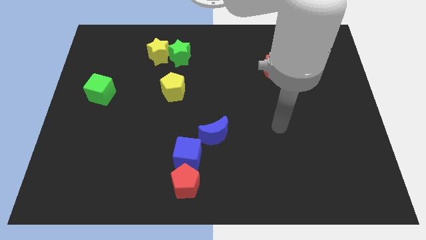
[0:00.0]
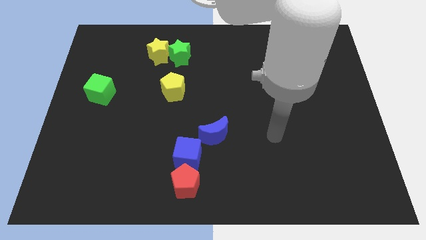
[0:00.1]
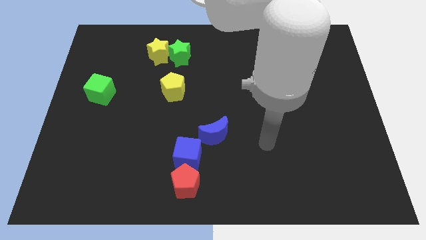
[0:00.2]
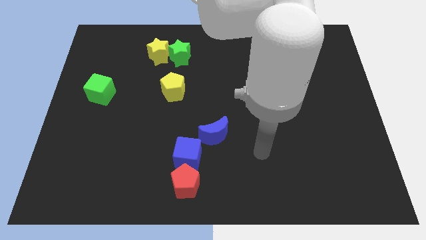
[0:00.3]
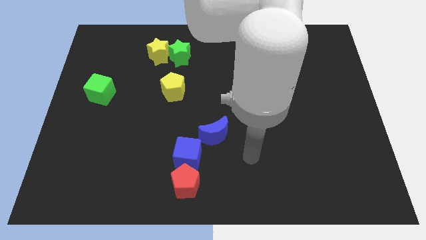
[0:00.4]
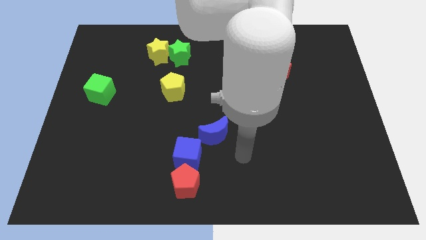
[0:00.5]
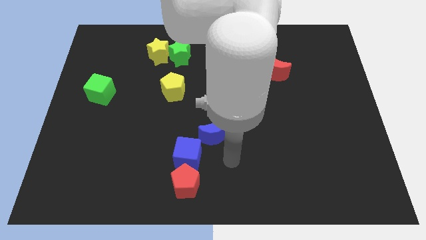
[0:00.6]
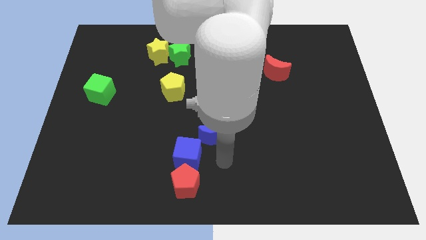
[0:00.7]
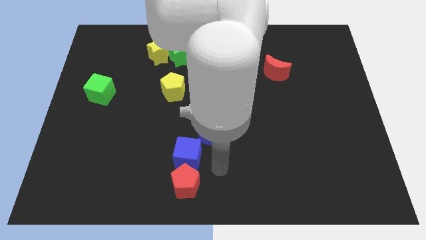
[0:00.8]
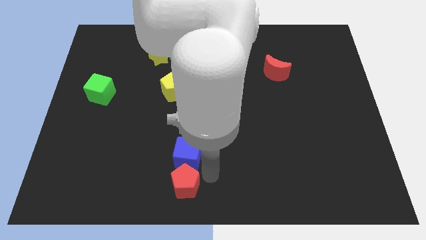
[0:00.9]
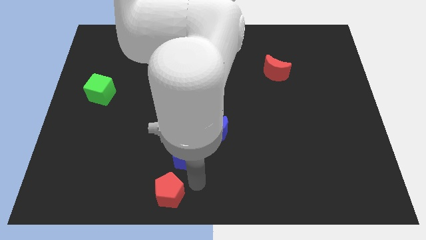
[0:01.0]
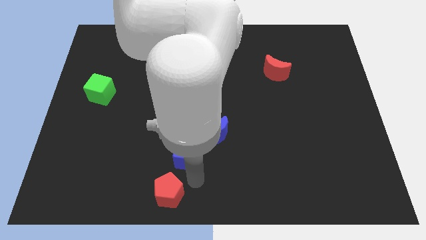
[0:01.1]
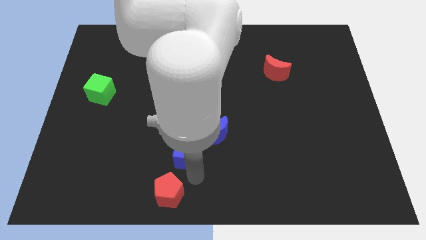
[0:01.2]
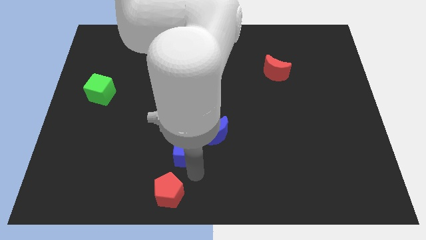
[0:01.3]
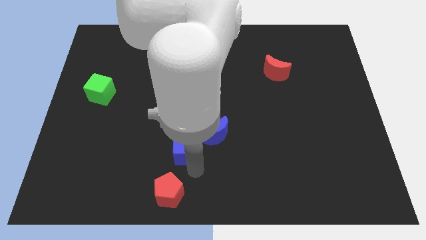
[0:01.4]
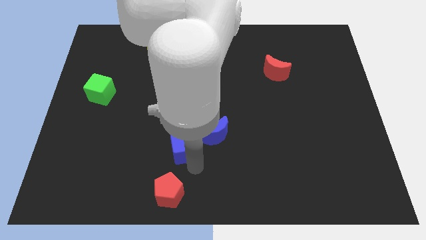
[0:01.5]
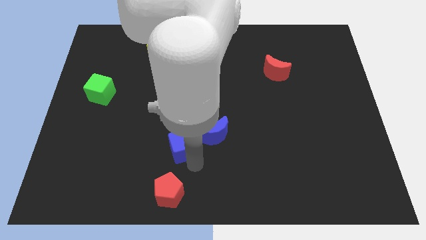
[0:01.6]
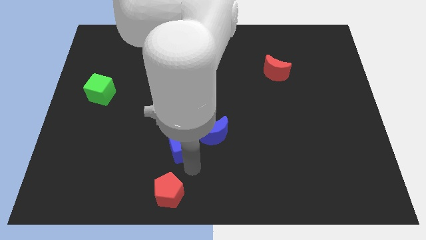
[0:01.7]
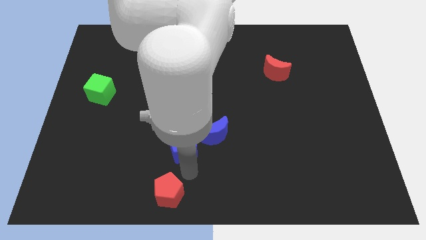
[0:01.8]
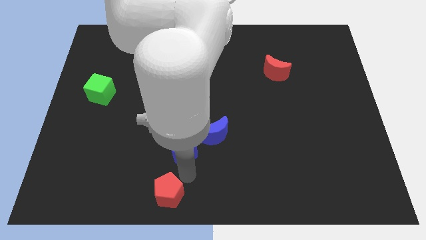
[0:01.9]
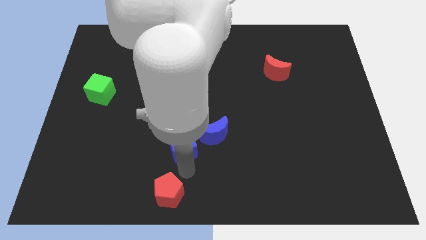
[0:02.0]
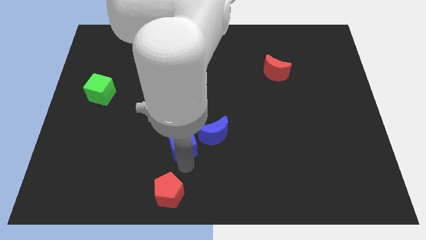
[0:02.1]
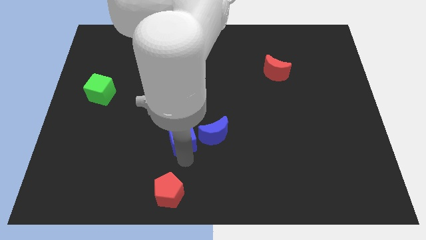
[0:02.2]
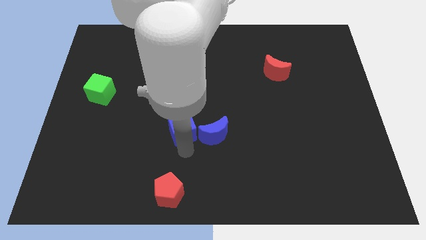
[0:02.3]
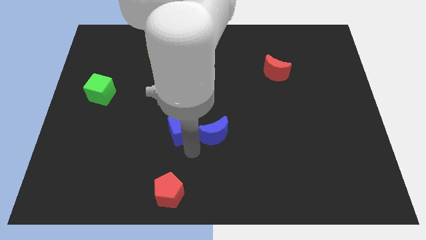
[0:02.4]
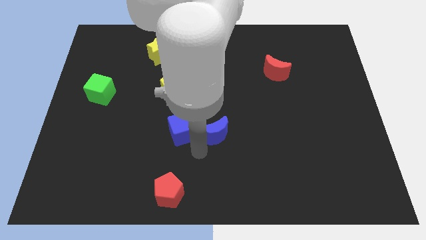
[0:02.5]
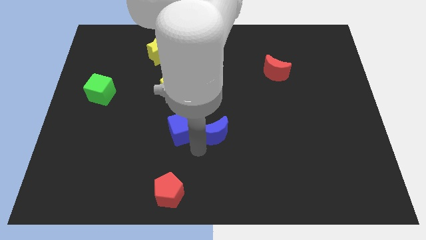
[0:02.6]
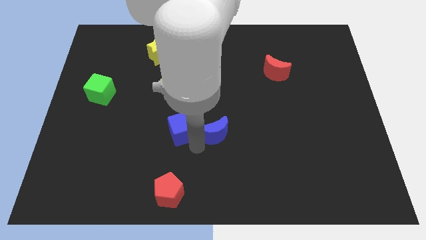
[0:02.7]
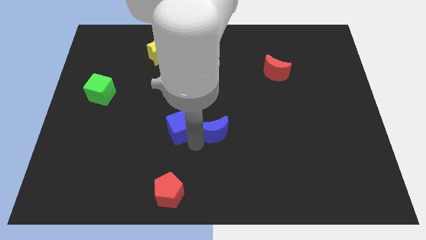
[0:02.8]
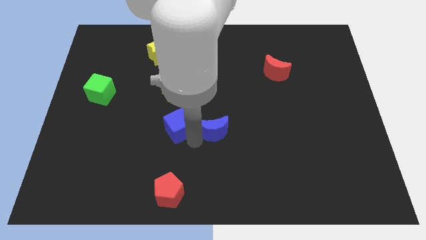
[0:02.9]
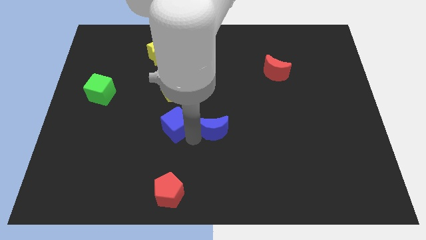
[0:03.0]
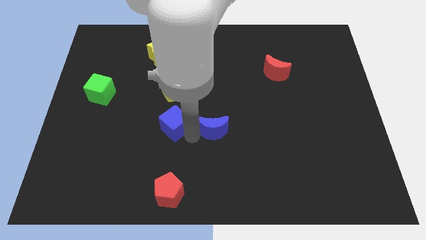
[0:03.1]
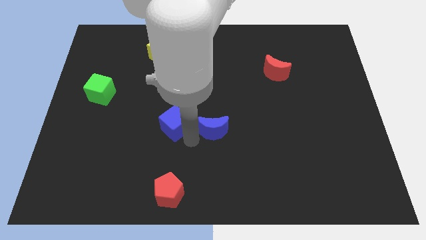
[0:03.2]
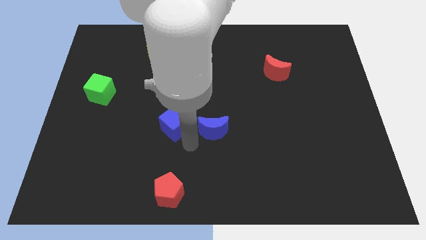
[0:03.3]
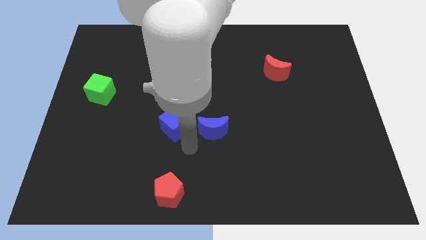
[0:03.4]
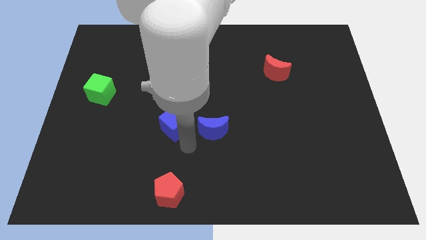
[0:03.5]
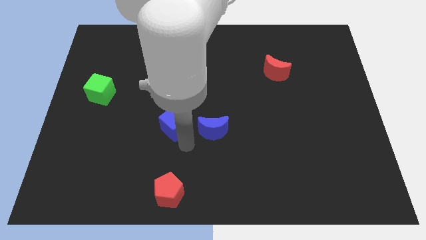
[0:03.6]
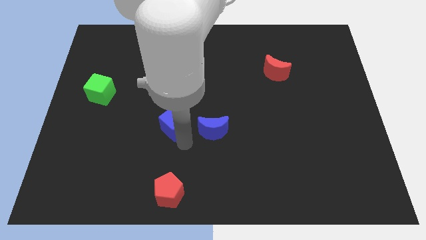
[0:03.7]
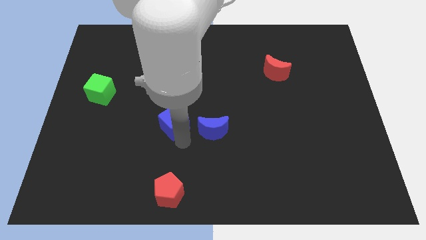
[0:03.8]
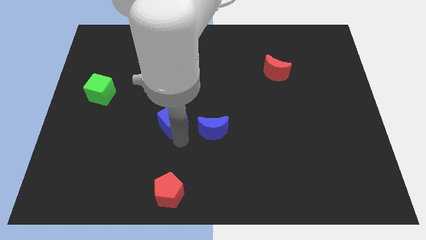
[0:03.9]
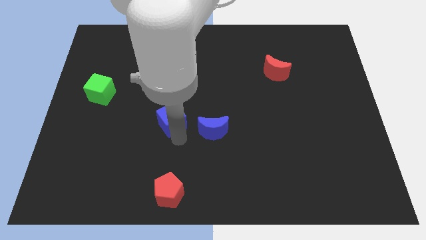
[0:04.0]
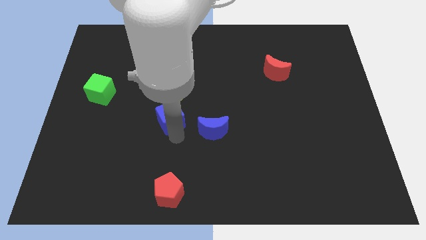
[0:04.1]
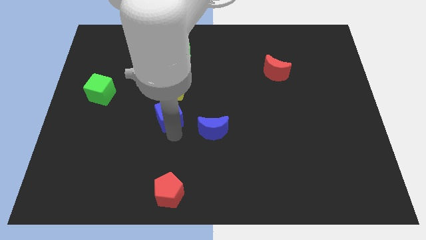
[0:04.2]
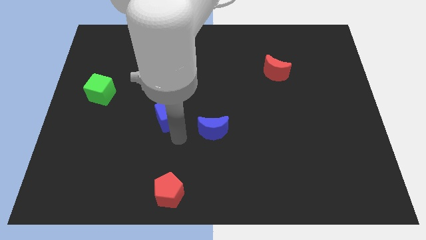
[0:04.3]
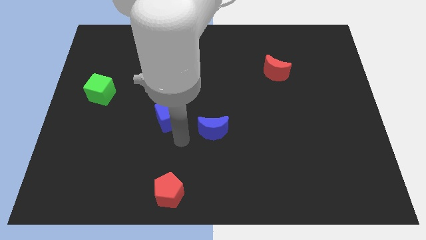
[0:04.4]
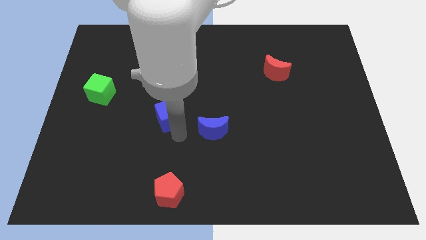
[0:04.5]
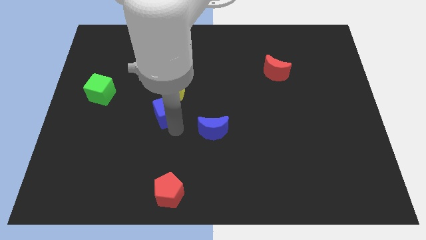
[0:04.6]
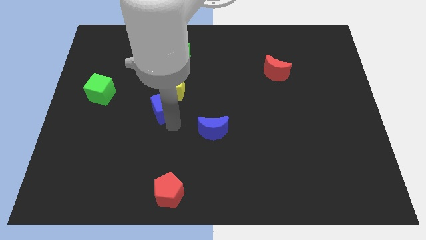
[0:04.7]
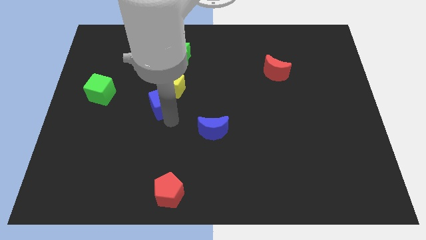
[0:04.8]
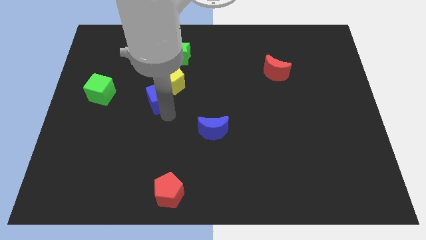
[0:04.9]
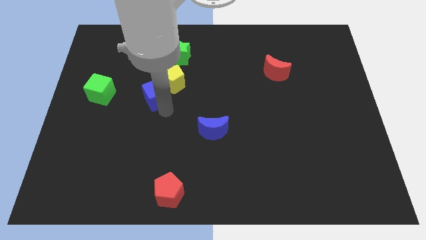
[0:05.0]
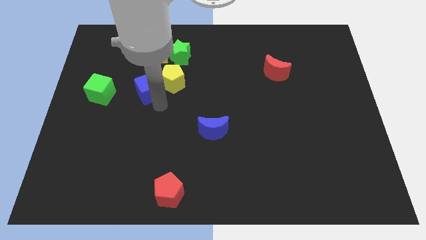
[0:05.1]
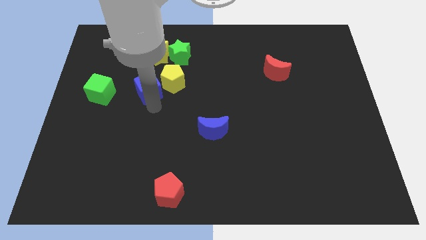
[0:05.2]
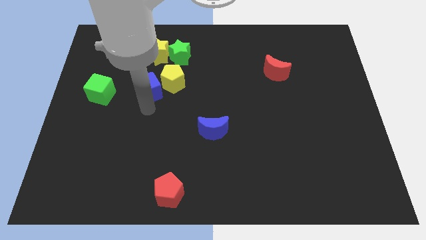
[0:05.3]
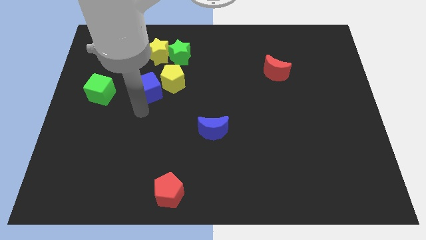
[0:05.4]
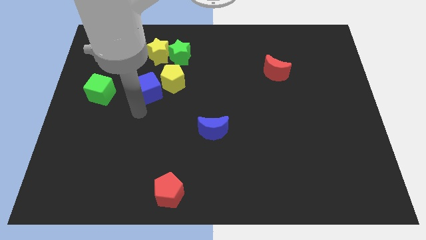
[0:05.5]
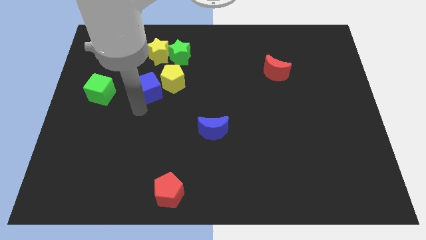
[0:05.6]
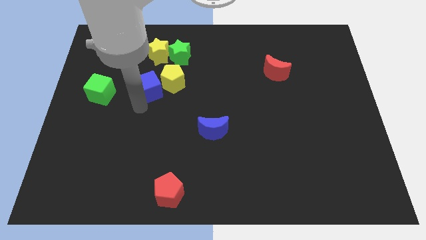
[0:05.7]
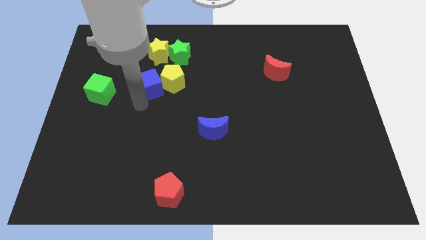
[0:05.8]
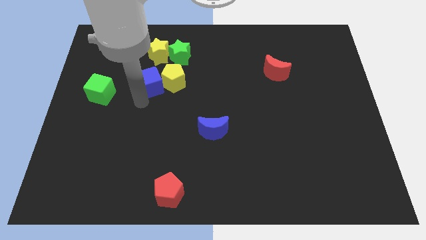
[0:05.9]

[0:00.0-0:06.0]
slide the blue cube to the bottom left side of the green star

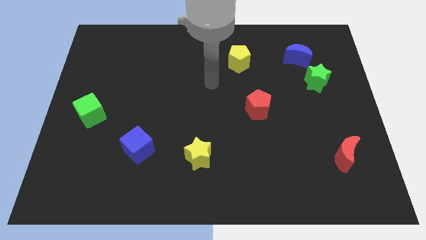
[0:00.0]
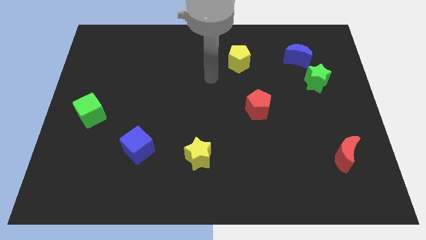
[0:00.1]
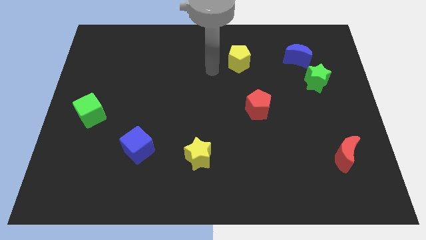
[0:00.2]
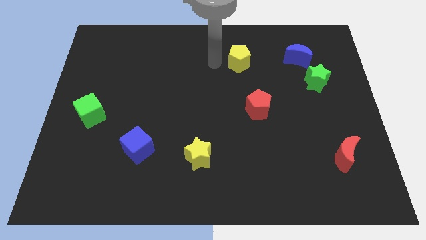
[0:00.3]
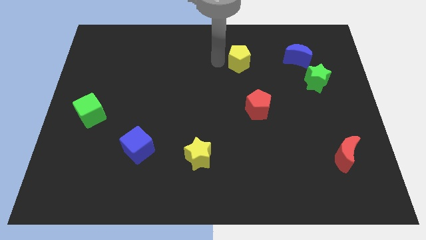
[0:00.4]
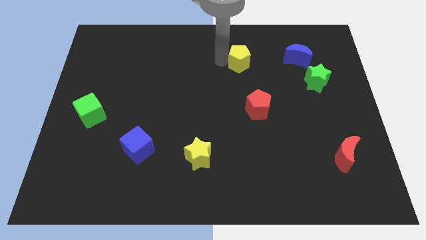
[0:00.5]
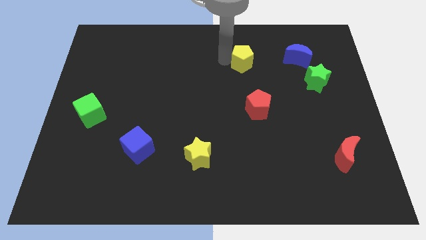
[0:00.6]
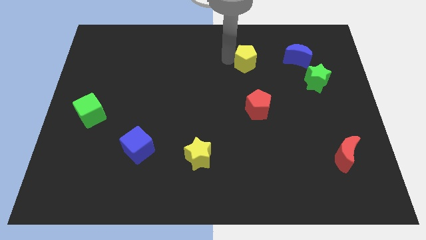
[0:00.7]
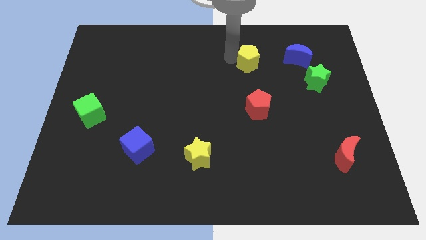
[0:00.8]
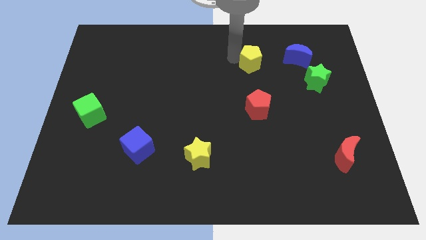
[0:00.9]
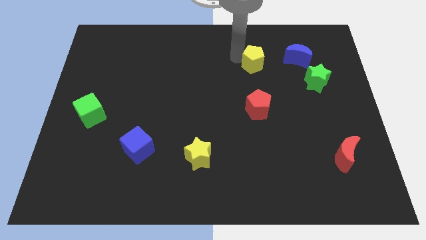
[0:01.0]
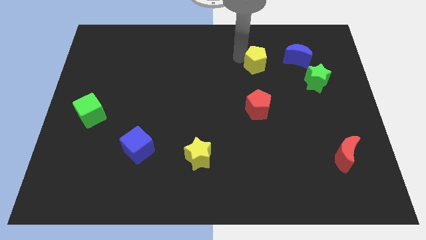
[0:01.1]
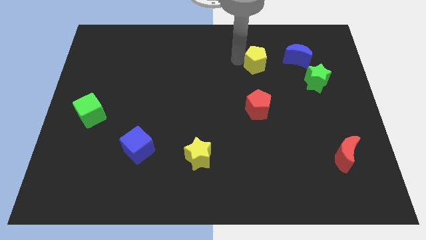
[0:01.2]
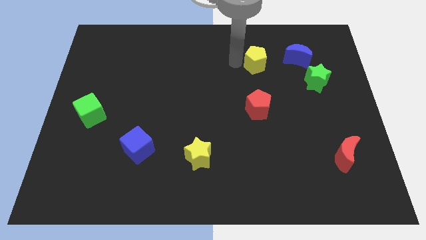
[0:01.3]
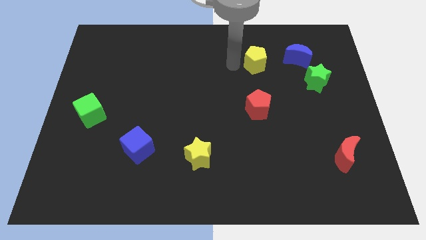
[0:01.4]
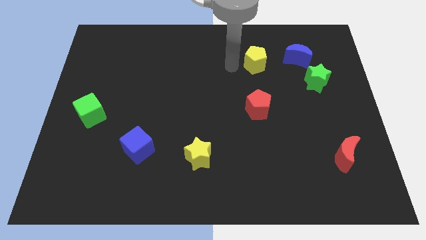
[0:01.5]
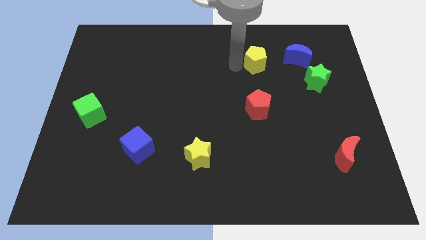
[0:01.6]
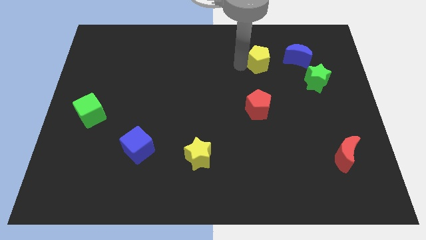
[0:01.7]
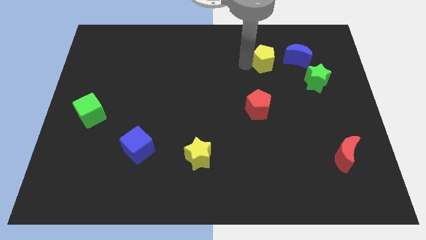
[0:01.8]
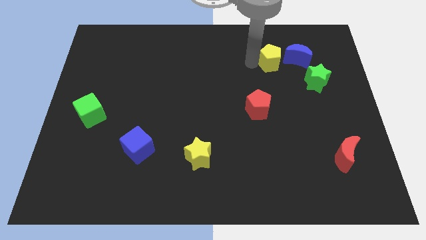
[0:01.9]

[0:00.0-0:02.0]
move the yellow pentagon to the top left of the green star
